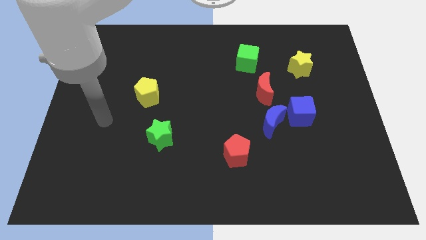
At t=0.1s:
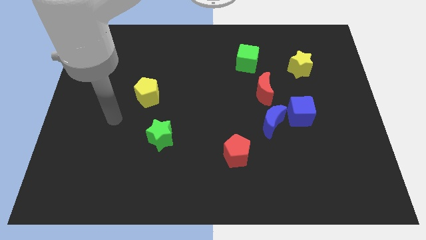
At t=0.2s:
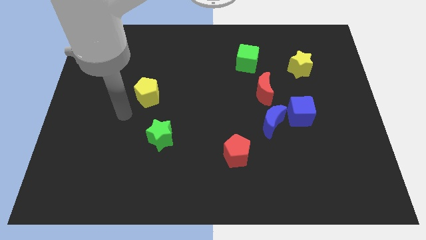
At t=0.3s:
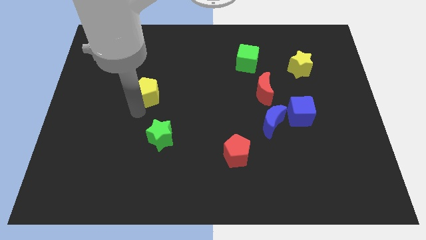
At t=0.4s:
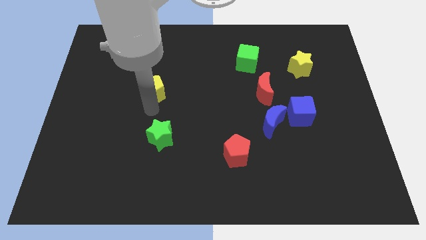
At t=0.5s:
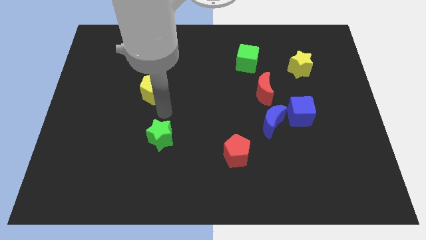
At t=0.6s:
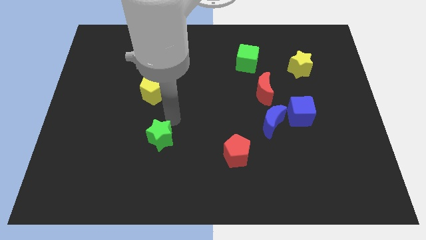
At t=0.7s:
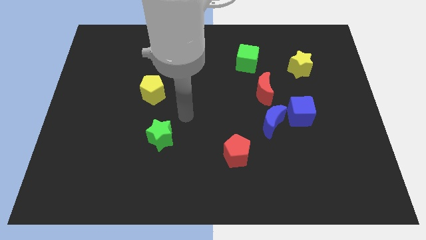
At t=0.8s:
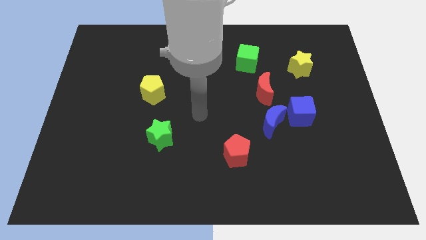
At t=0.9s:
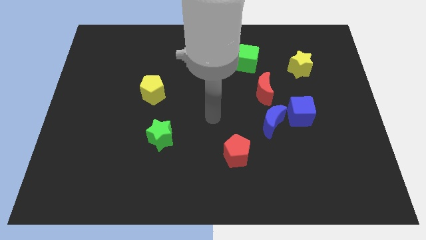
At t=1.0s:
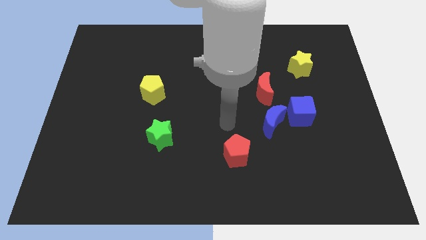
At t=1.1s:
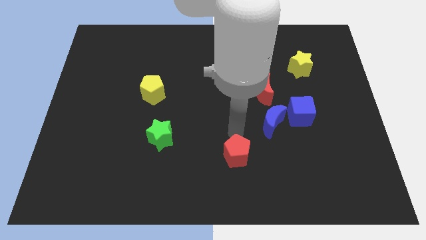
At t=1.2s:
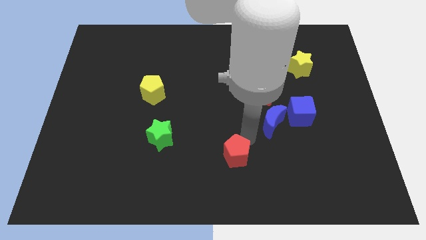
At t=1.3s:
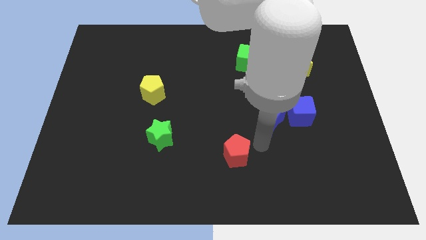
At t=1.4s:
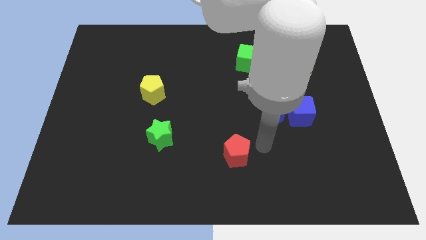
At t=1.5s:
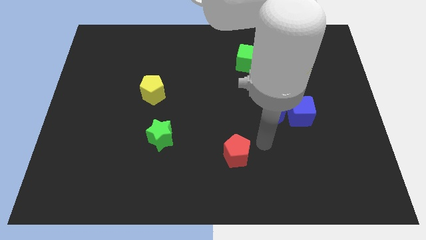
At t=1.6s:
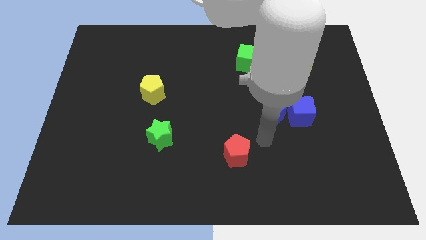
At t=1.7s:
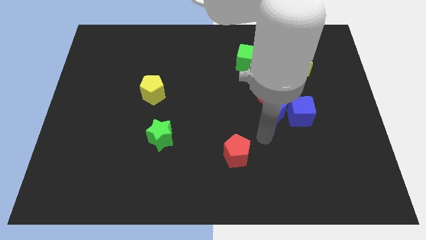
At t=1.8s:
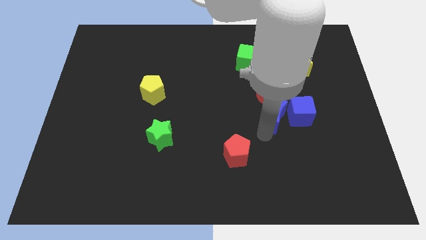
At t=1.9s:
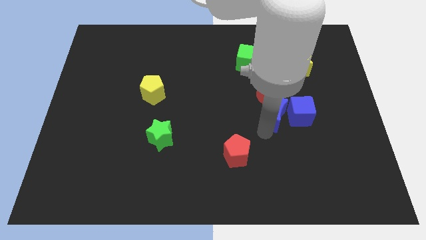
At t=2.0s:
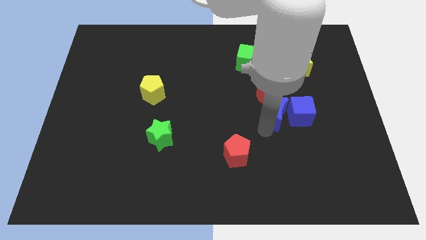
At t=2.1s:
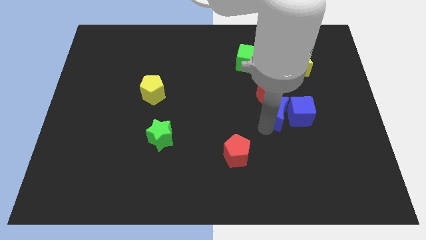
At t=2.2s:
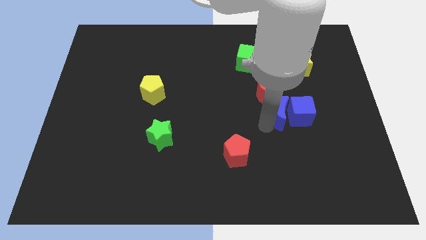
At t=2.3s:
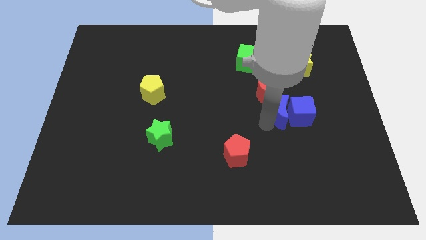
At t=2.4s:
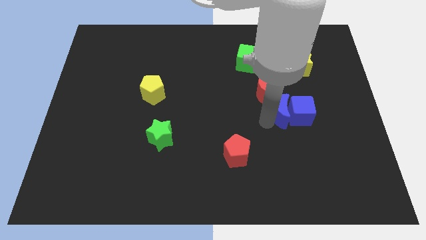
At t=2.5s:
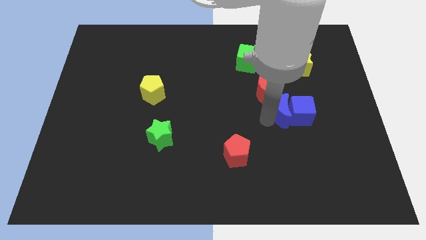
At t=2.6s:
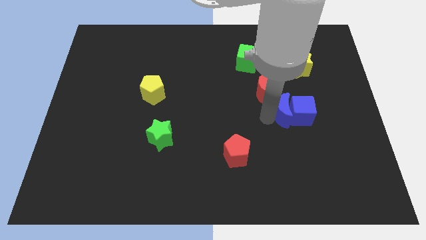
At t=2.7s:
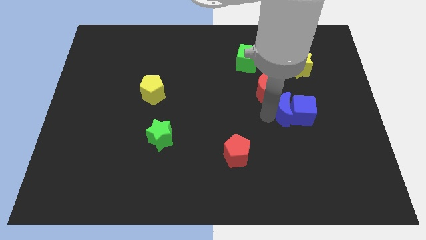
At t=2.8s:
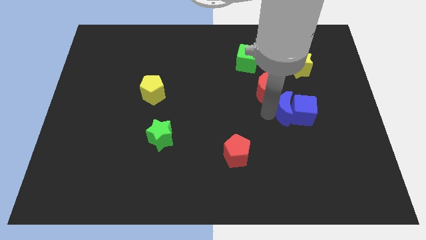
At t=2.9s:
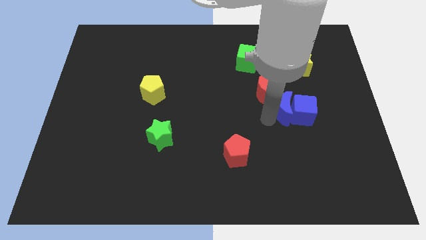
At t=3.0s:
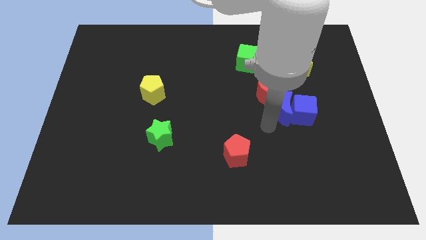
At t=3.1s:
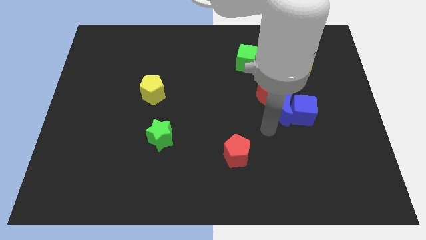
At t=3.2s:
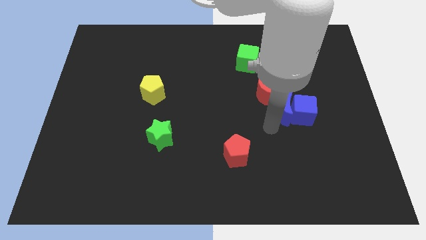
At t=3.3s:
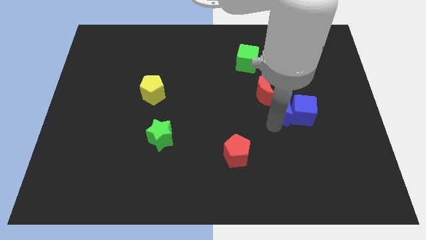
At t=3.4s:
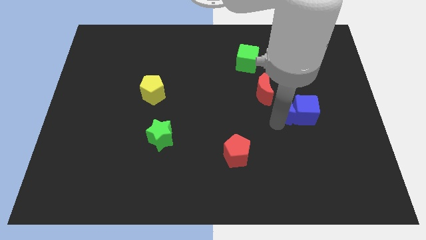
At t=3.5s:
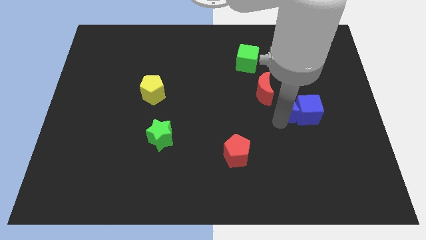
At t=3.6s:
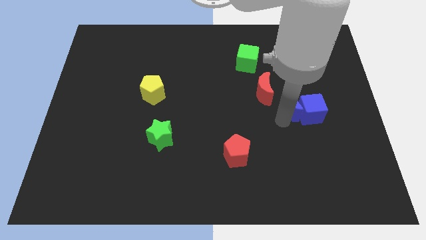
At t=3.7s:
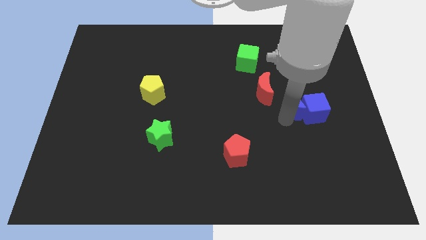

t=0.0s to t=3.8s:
slightly slide the blue moon up and right

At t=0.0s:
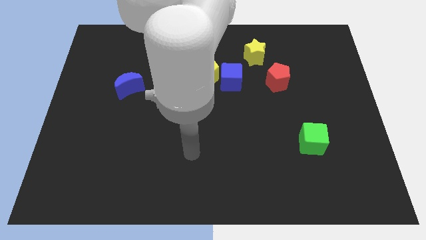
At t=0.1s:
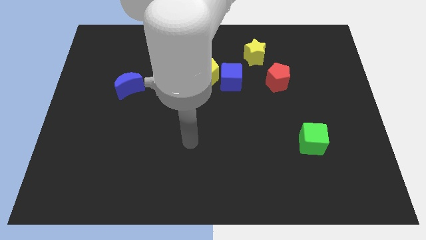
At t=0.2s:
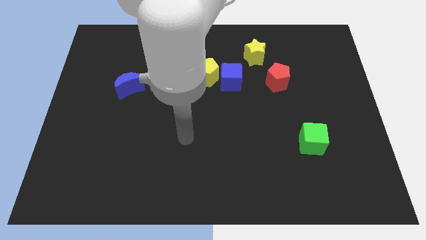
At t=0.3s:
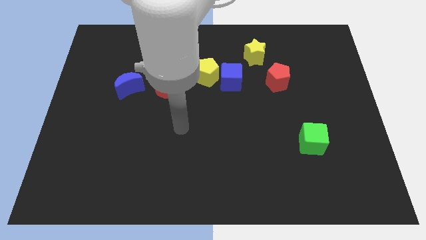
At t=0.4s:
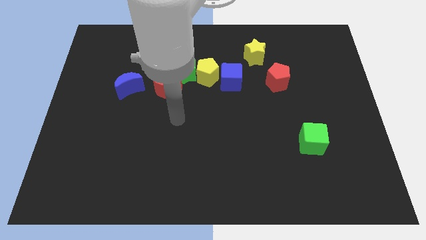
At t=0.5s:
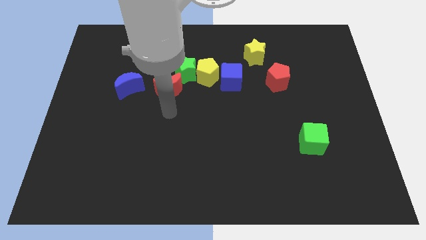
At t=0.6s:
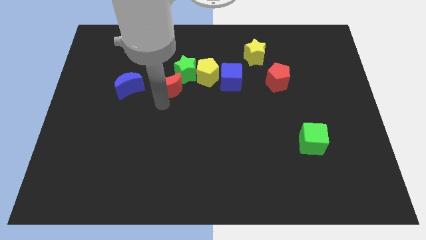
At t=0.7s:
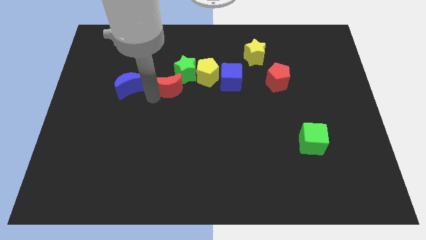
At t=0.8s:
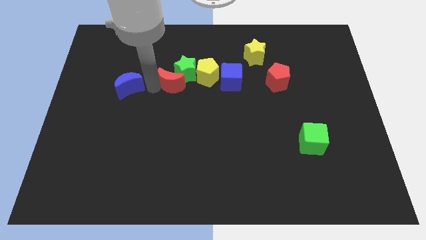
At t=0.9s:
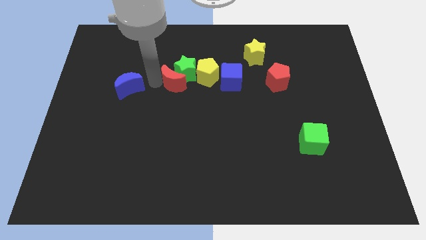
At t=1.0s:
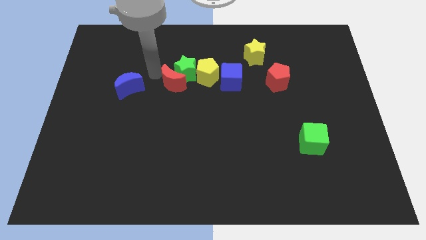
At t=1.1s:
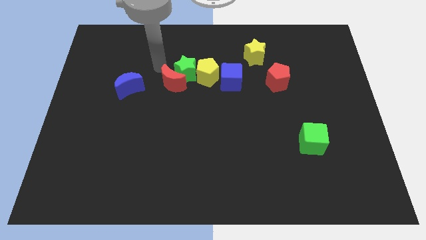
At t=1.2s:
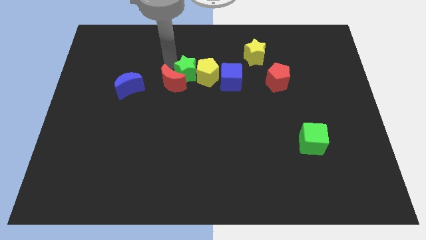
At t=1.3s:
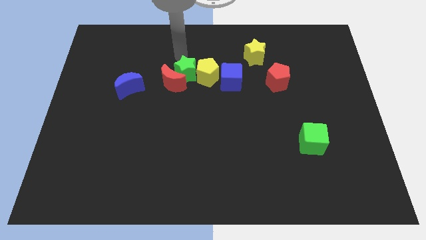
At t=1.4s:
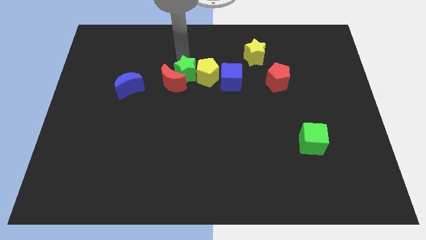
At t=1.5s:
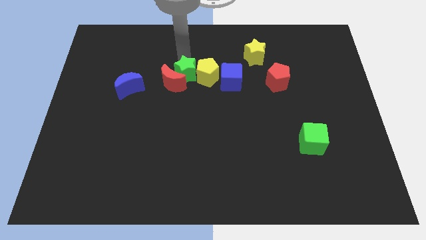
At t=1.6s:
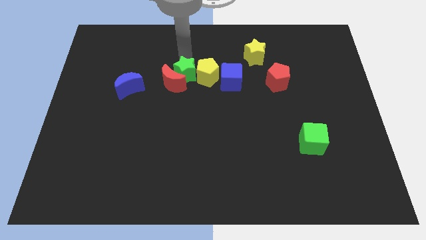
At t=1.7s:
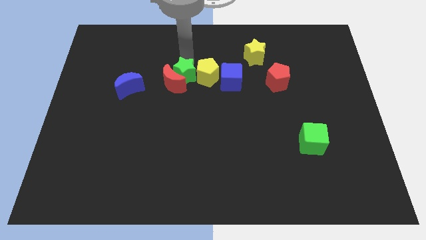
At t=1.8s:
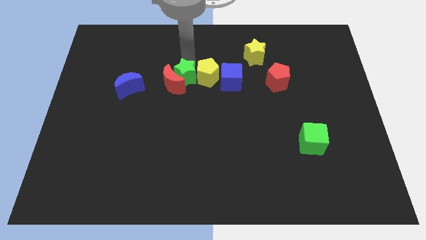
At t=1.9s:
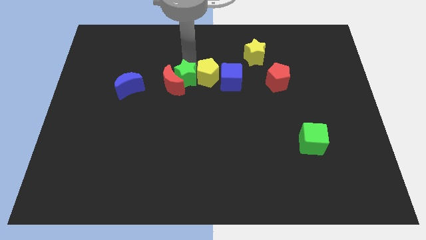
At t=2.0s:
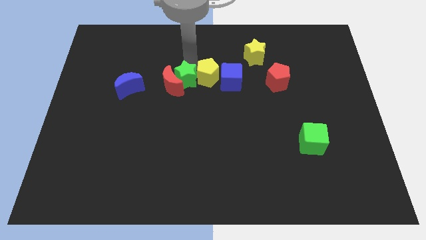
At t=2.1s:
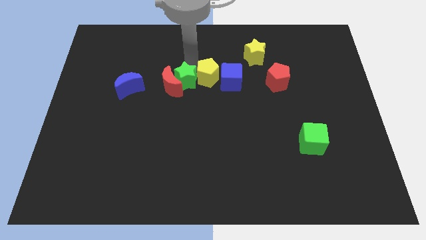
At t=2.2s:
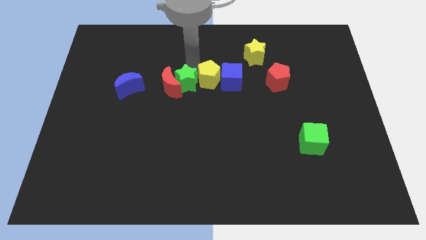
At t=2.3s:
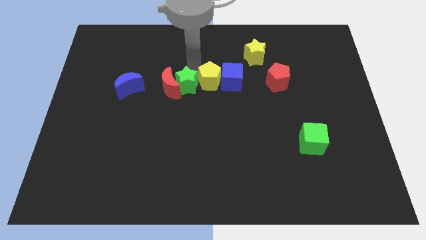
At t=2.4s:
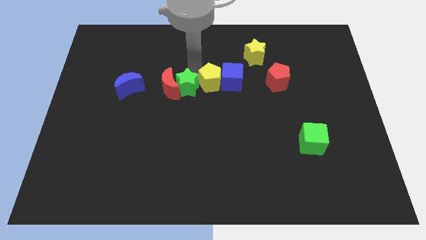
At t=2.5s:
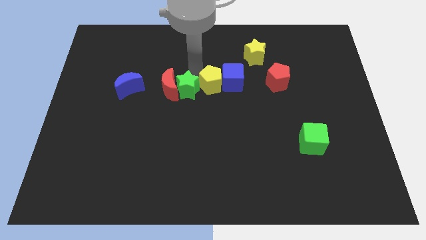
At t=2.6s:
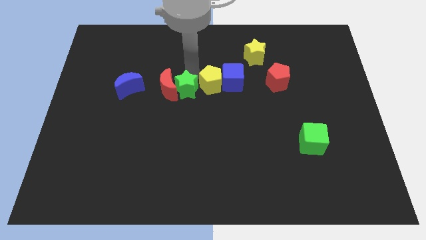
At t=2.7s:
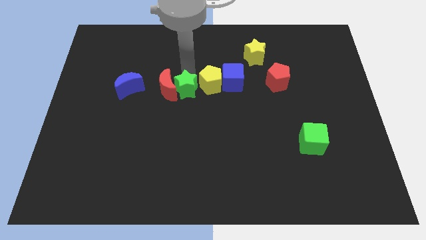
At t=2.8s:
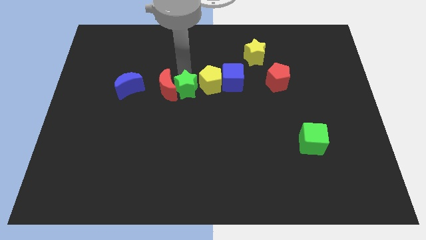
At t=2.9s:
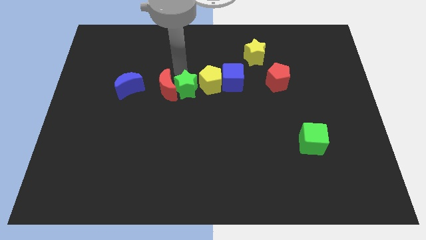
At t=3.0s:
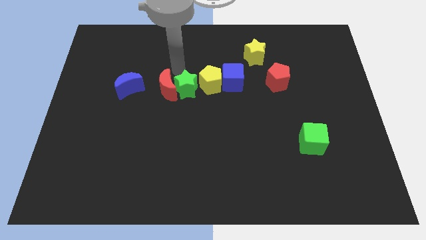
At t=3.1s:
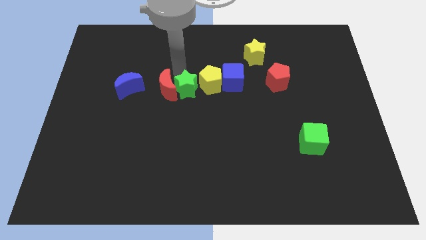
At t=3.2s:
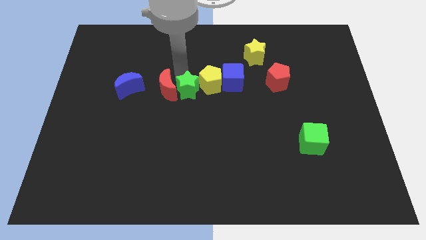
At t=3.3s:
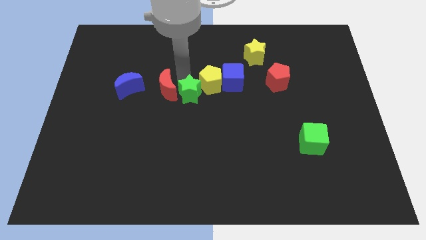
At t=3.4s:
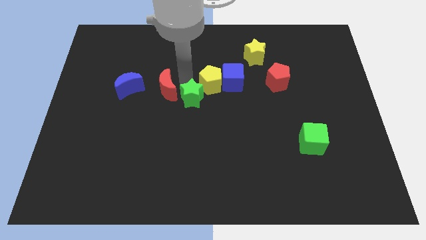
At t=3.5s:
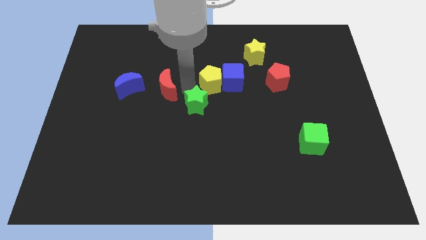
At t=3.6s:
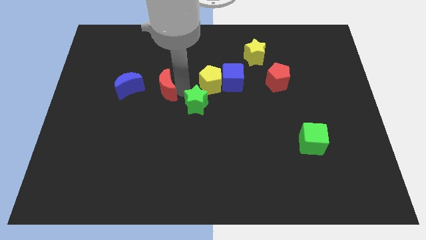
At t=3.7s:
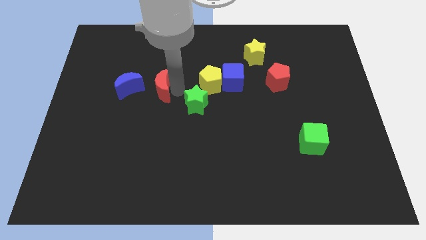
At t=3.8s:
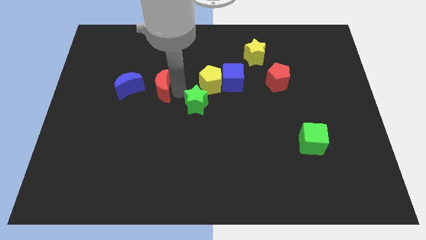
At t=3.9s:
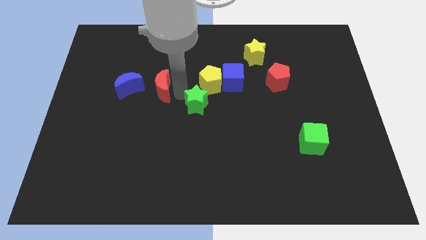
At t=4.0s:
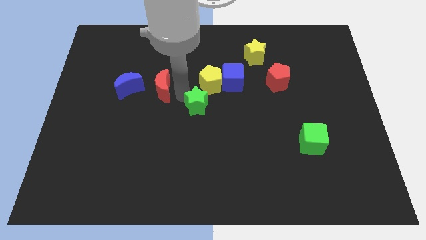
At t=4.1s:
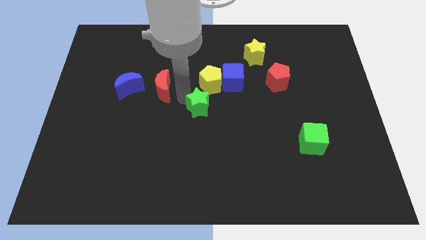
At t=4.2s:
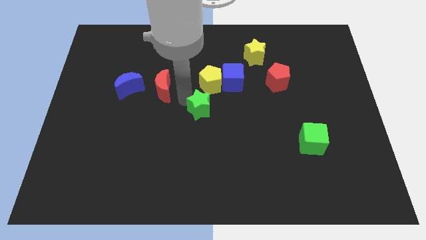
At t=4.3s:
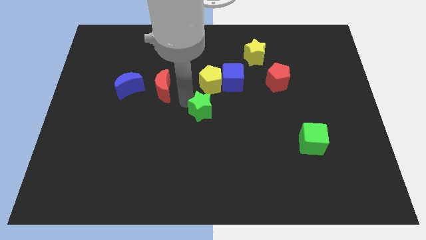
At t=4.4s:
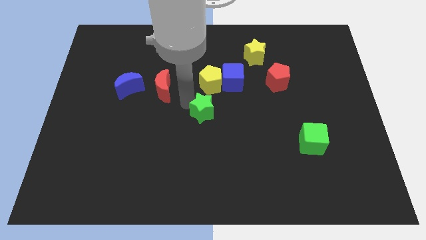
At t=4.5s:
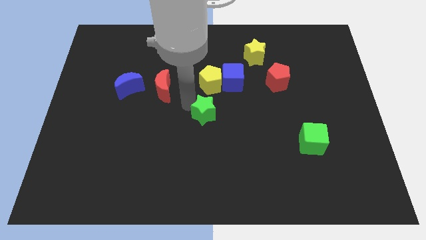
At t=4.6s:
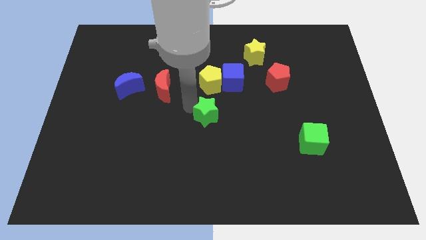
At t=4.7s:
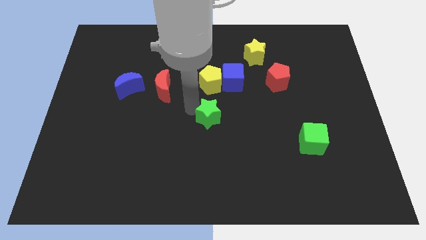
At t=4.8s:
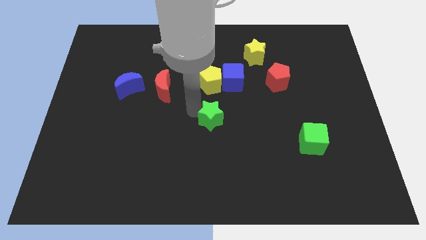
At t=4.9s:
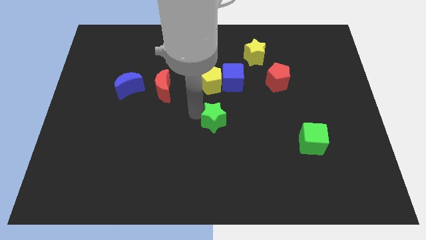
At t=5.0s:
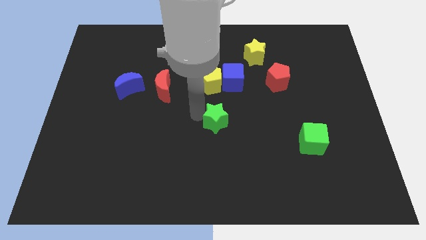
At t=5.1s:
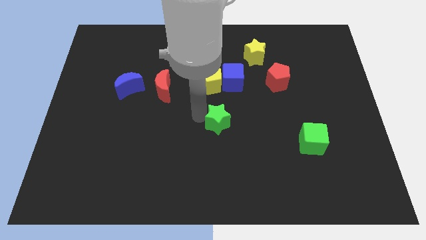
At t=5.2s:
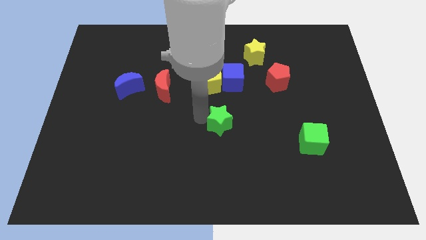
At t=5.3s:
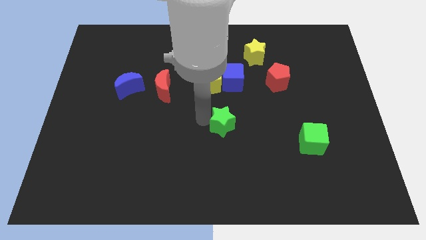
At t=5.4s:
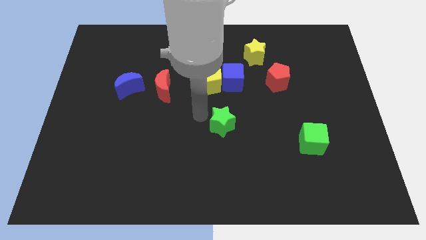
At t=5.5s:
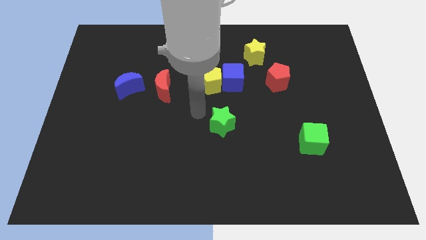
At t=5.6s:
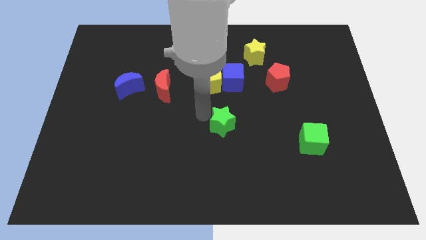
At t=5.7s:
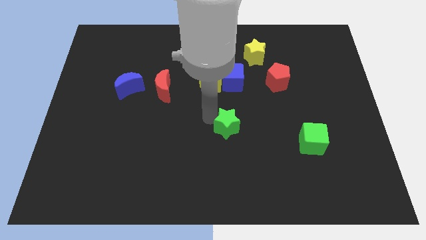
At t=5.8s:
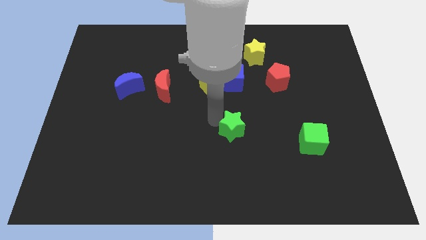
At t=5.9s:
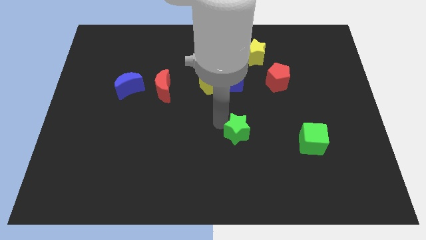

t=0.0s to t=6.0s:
push the green star down and then right
